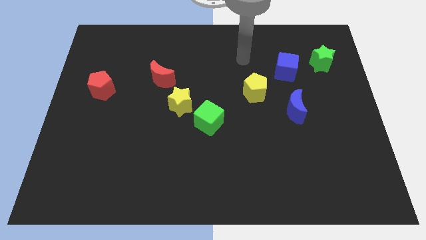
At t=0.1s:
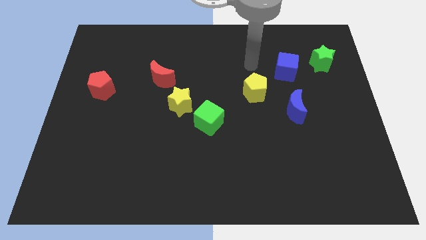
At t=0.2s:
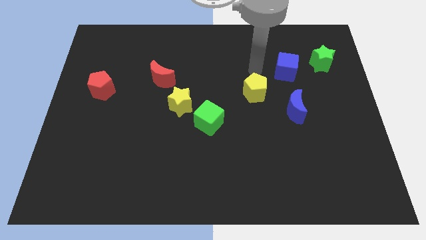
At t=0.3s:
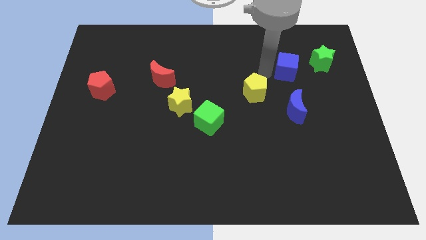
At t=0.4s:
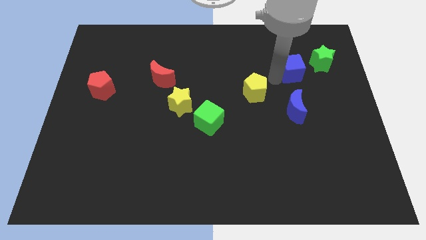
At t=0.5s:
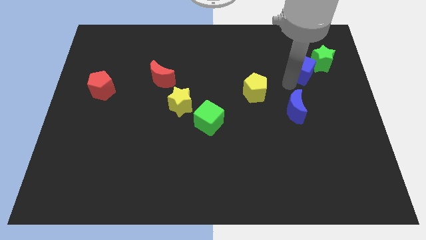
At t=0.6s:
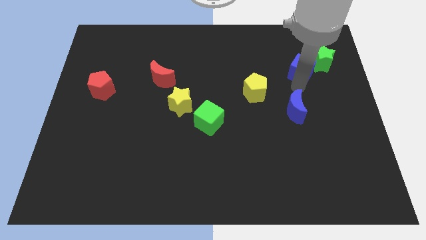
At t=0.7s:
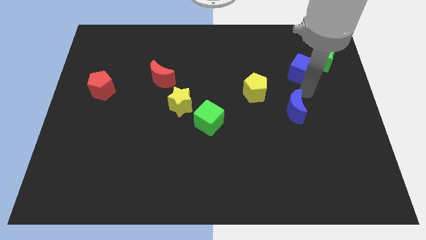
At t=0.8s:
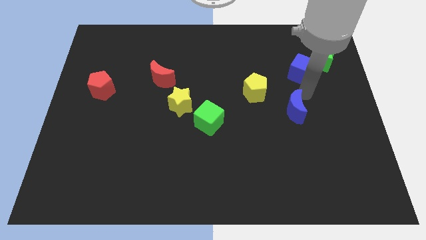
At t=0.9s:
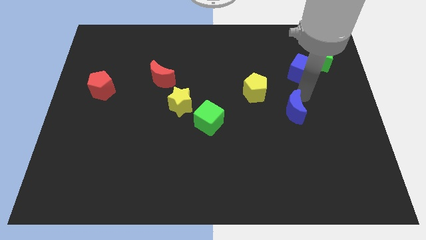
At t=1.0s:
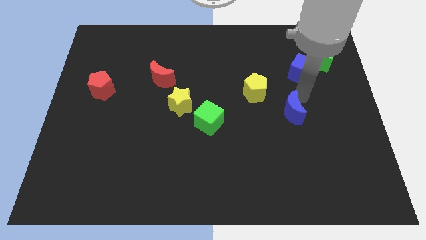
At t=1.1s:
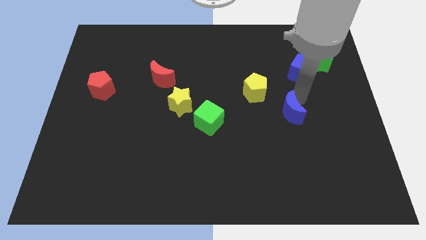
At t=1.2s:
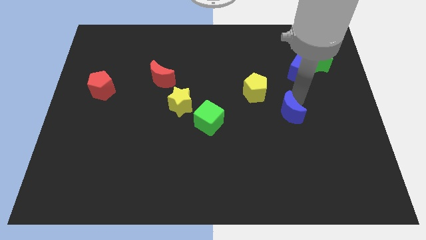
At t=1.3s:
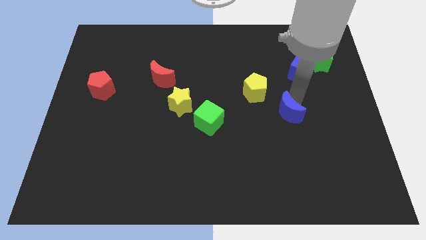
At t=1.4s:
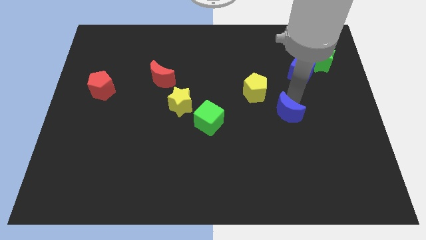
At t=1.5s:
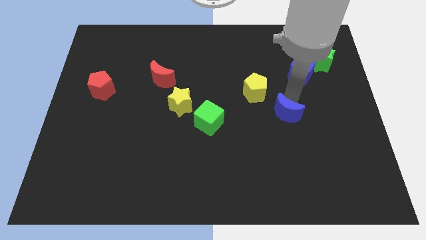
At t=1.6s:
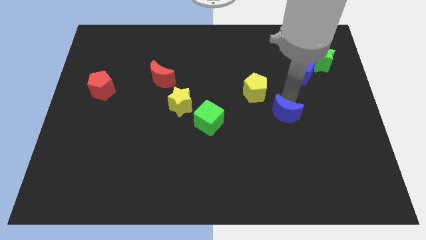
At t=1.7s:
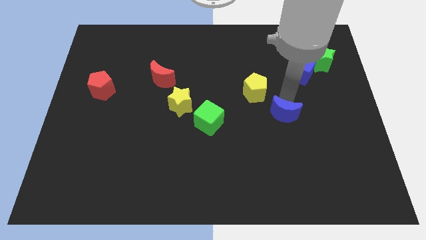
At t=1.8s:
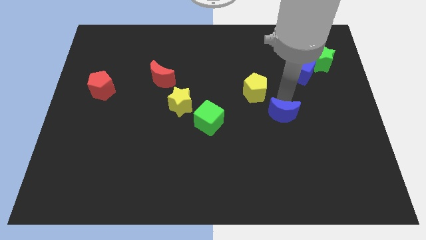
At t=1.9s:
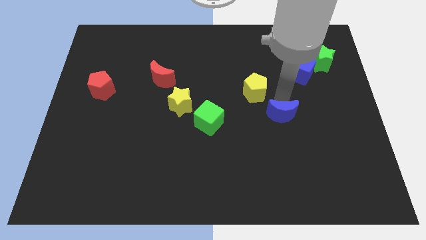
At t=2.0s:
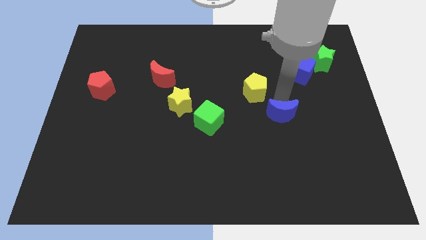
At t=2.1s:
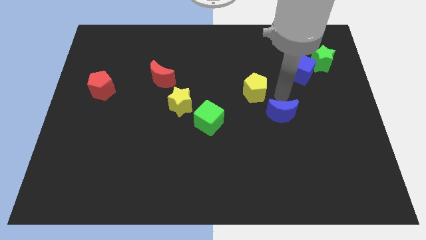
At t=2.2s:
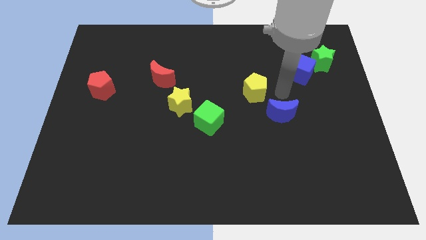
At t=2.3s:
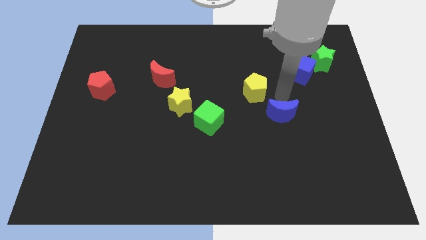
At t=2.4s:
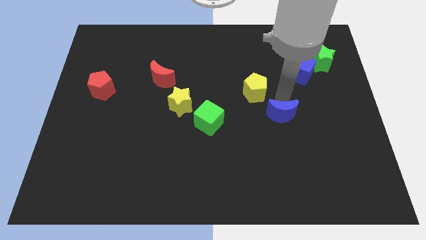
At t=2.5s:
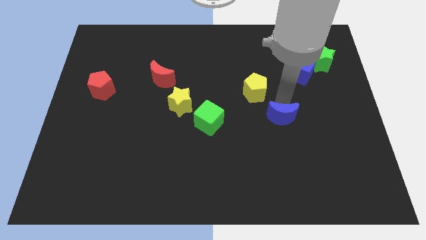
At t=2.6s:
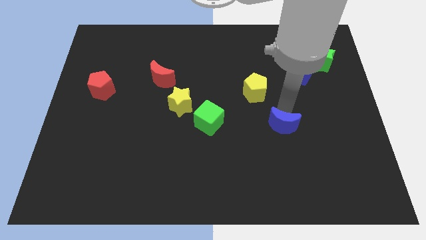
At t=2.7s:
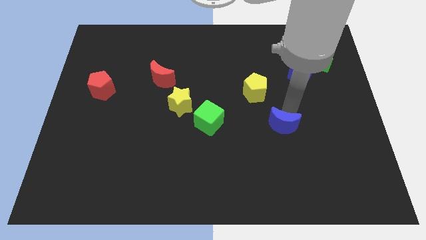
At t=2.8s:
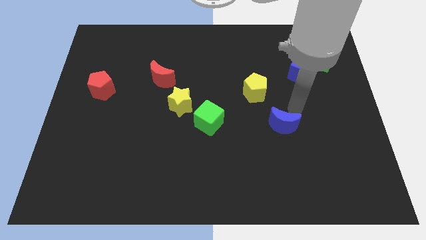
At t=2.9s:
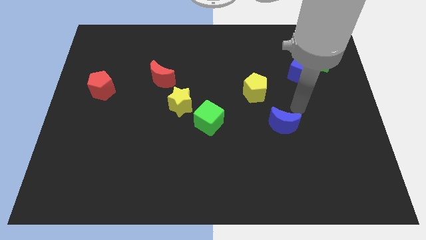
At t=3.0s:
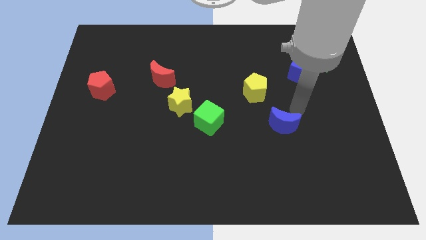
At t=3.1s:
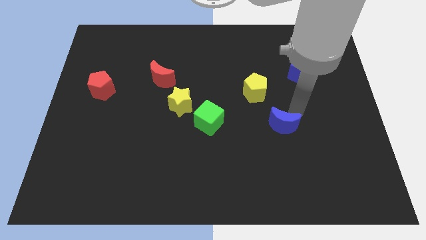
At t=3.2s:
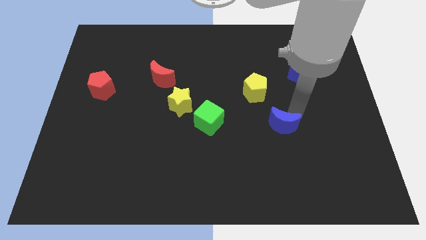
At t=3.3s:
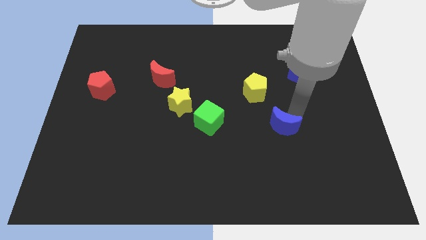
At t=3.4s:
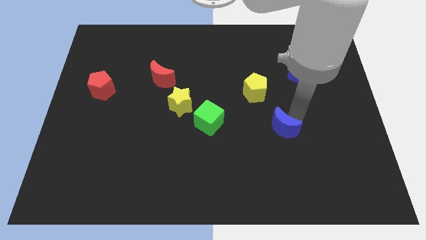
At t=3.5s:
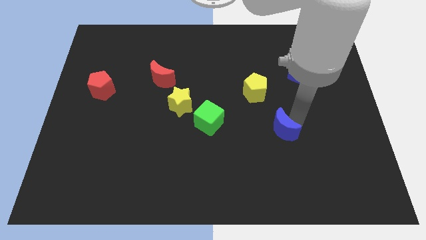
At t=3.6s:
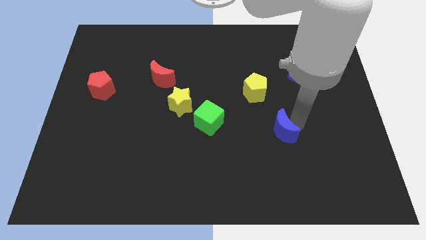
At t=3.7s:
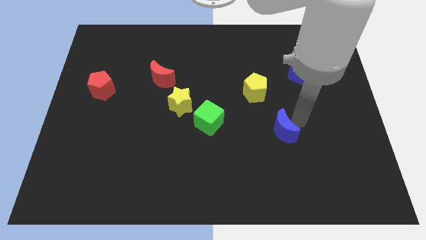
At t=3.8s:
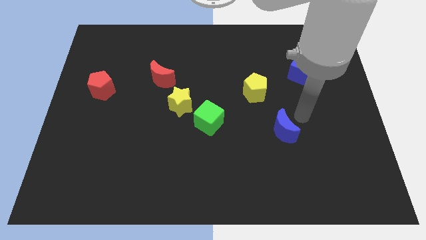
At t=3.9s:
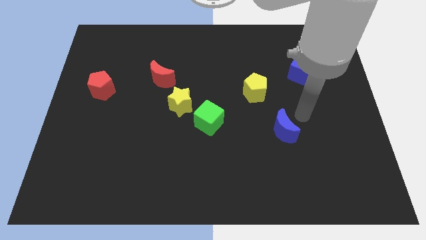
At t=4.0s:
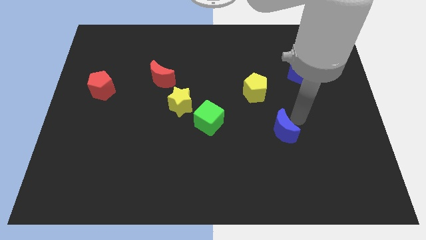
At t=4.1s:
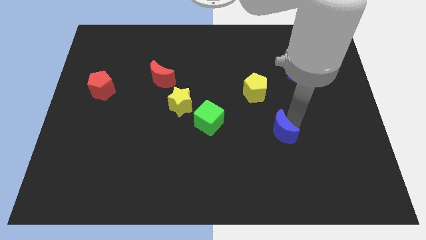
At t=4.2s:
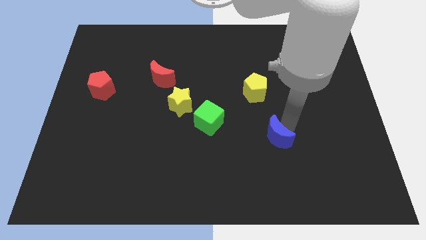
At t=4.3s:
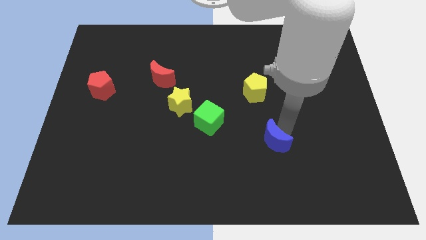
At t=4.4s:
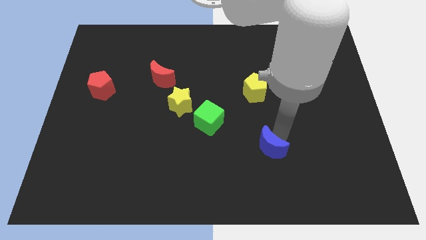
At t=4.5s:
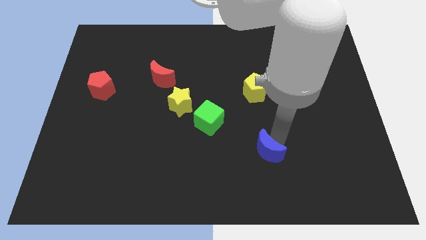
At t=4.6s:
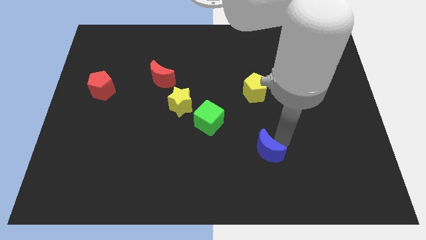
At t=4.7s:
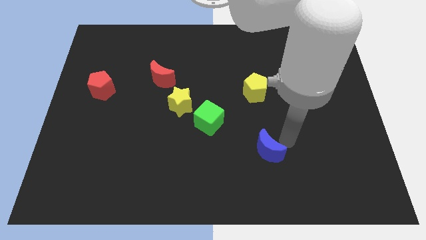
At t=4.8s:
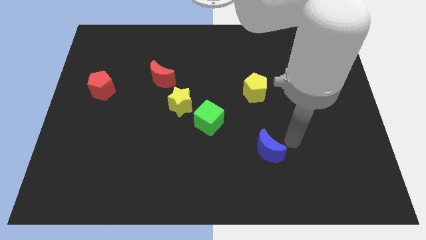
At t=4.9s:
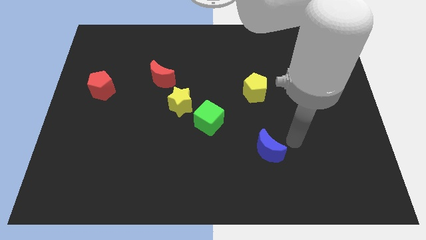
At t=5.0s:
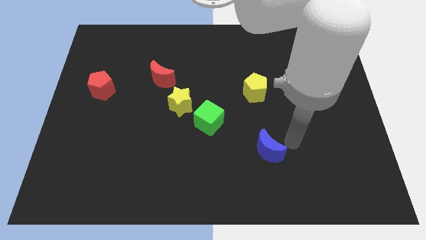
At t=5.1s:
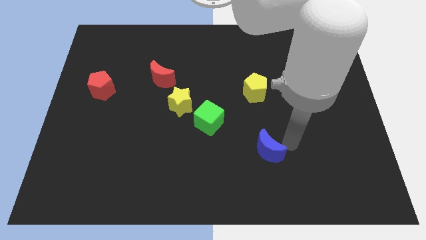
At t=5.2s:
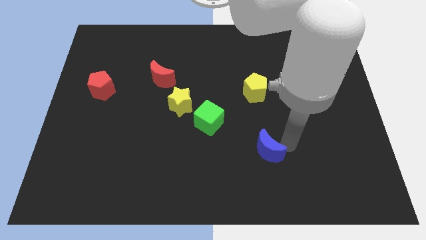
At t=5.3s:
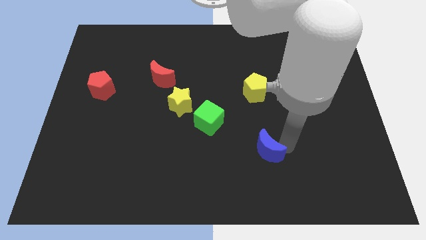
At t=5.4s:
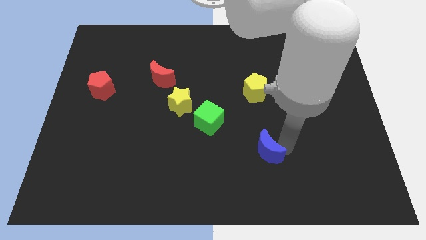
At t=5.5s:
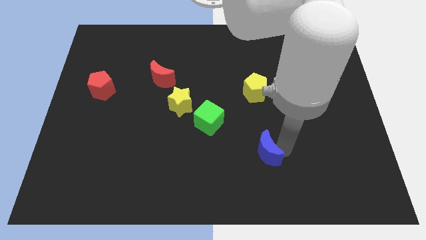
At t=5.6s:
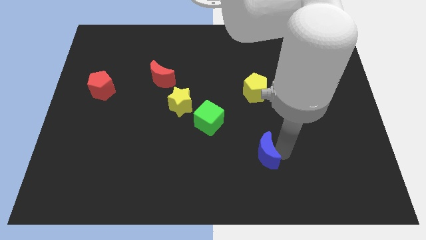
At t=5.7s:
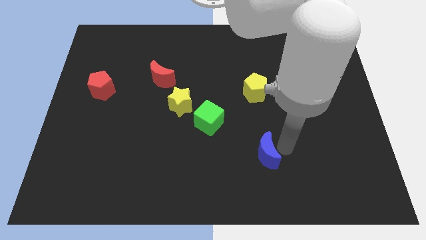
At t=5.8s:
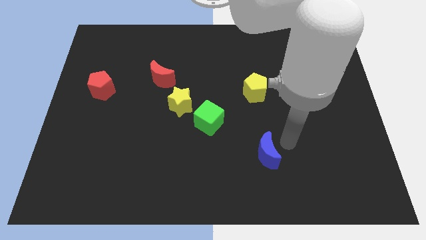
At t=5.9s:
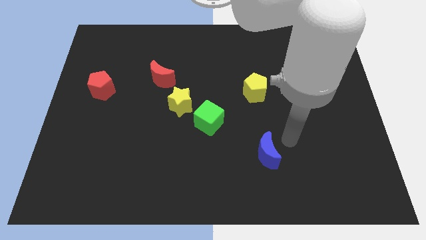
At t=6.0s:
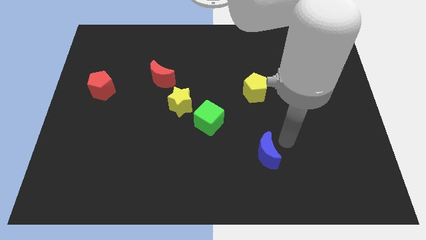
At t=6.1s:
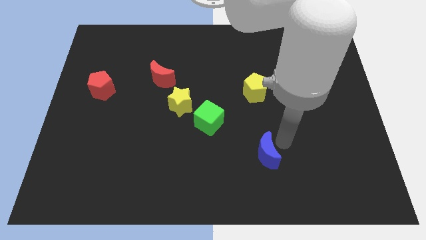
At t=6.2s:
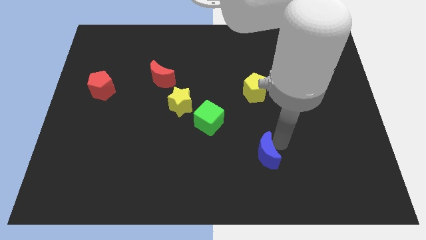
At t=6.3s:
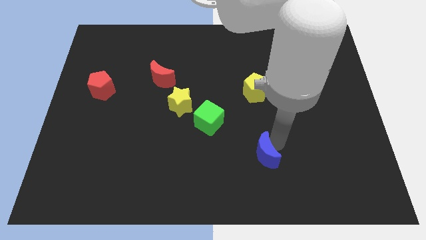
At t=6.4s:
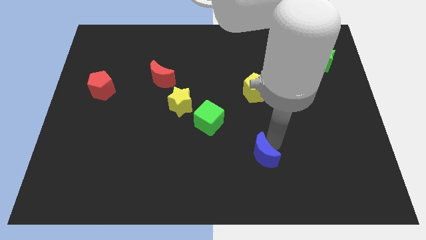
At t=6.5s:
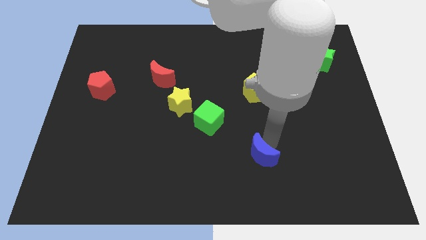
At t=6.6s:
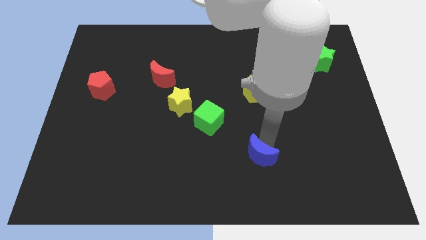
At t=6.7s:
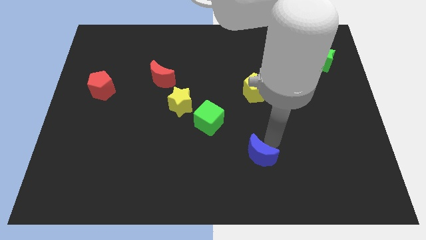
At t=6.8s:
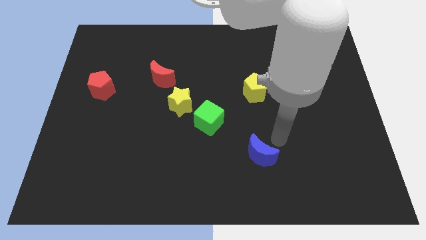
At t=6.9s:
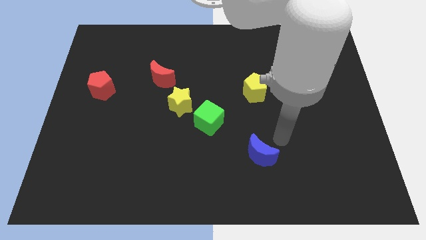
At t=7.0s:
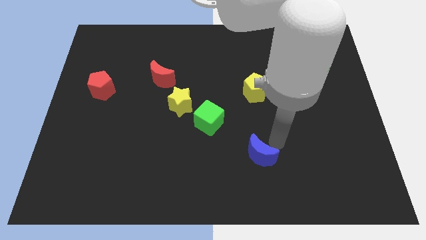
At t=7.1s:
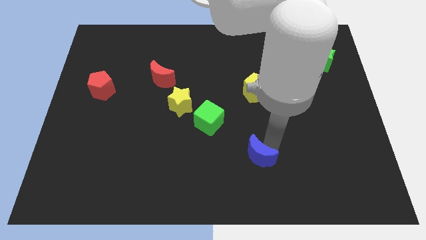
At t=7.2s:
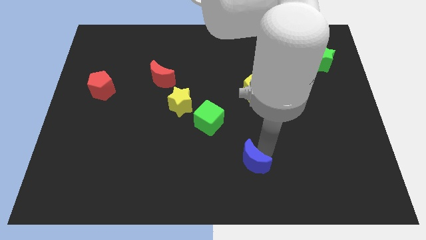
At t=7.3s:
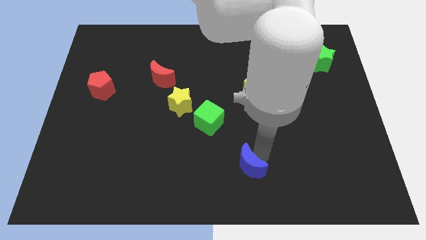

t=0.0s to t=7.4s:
put the blue moon to the bottom
